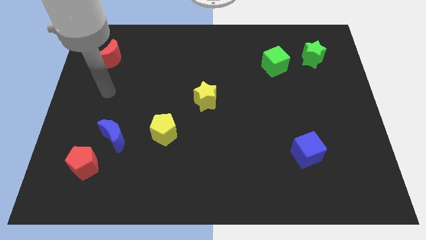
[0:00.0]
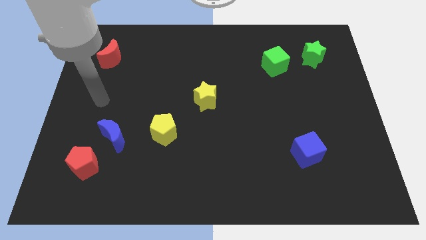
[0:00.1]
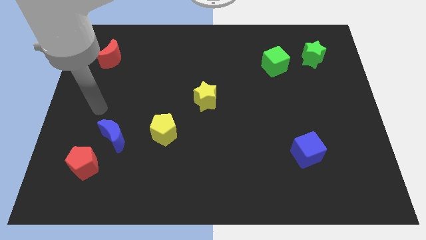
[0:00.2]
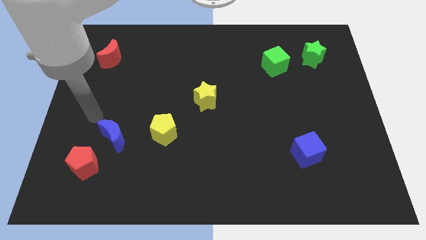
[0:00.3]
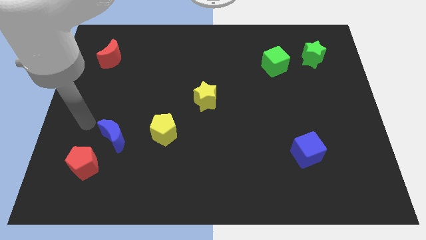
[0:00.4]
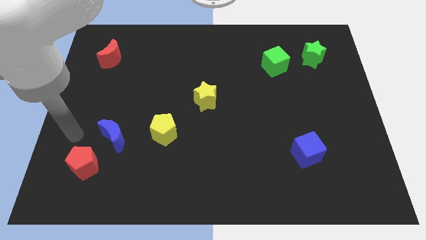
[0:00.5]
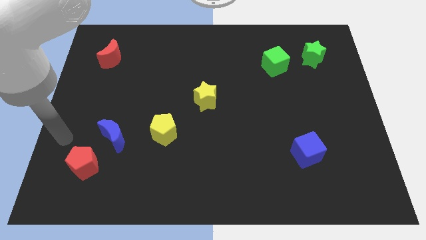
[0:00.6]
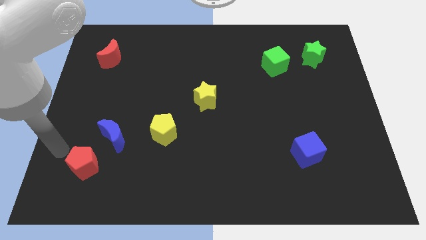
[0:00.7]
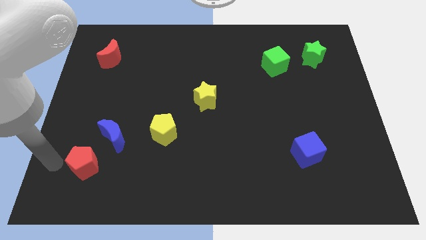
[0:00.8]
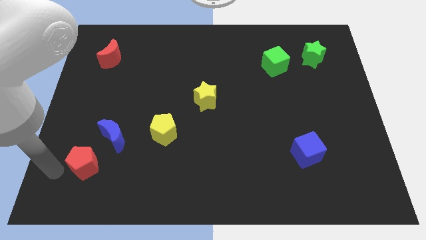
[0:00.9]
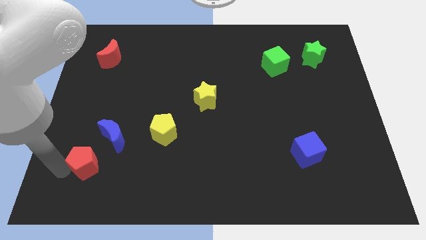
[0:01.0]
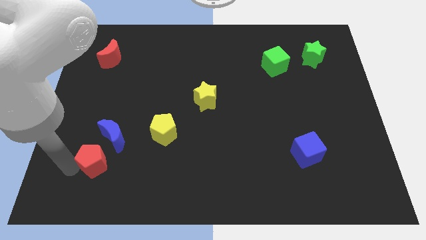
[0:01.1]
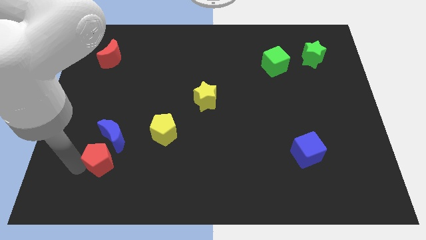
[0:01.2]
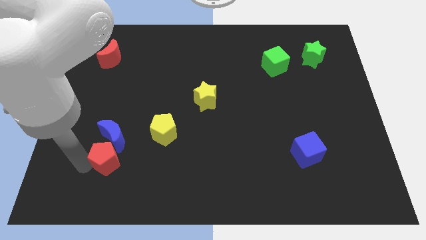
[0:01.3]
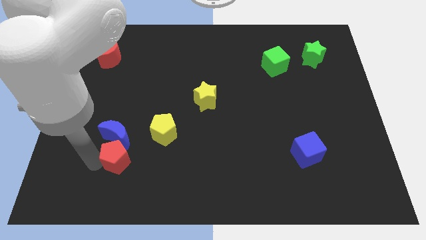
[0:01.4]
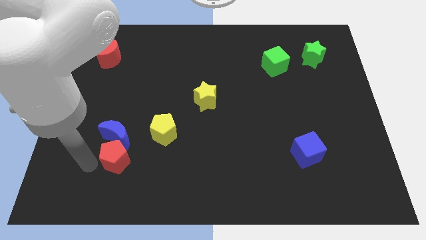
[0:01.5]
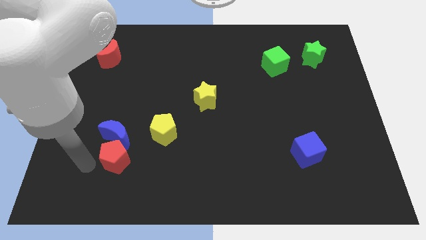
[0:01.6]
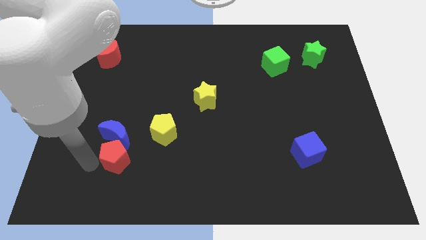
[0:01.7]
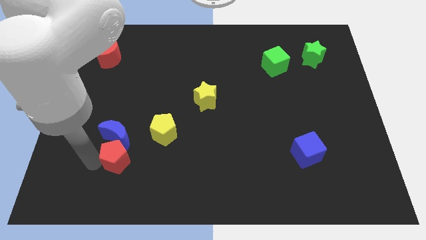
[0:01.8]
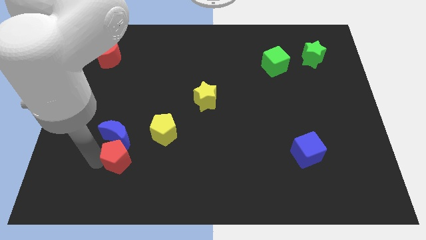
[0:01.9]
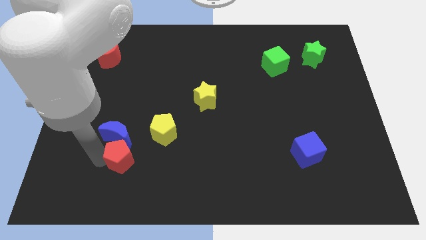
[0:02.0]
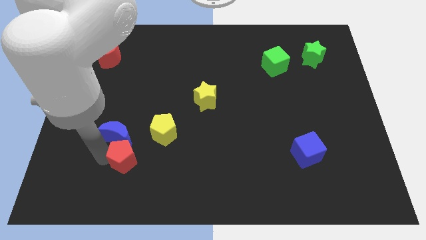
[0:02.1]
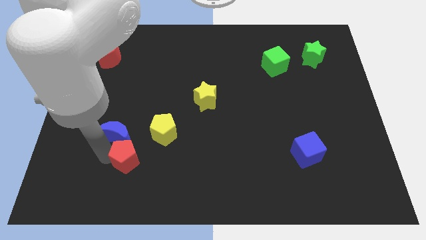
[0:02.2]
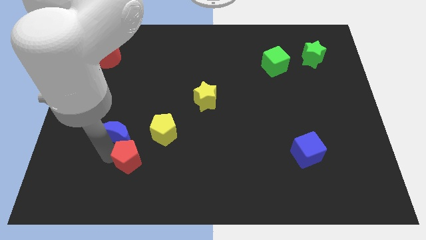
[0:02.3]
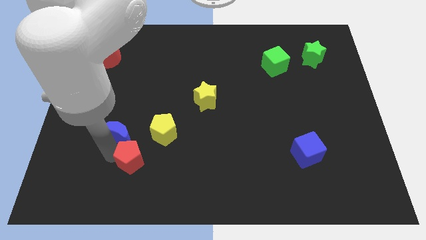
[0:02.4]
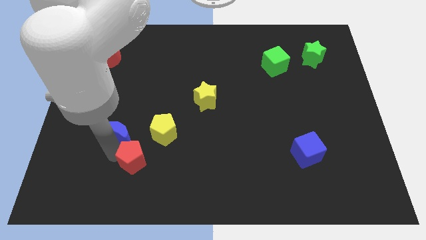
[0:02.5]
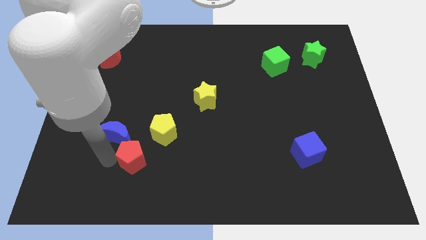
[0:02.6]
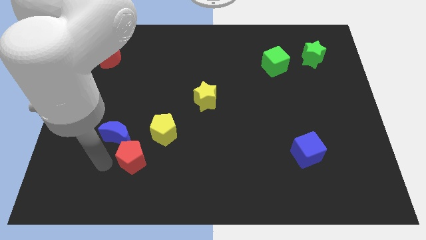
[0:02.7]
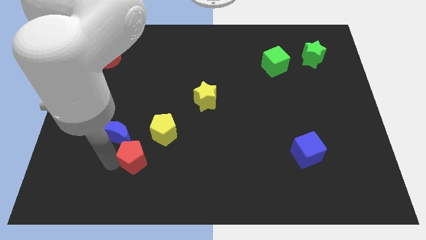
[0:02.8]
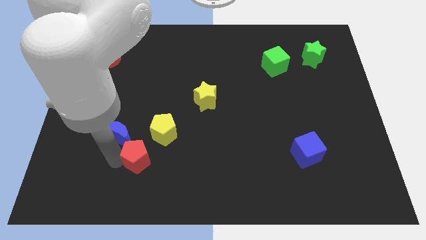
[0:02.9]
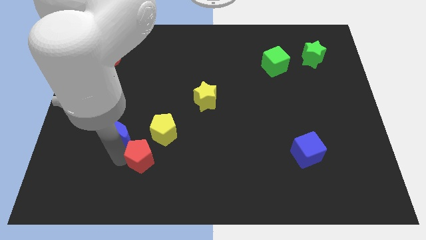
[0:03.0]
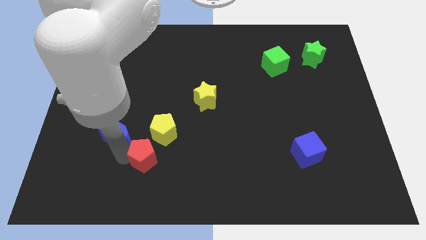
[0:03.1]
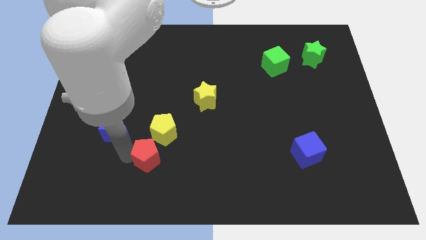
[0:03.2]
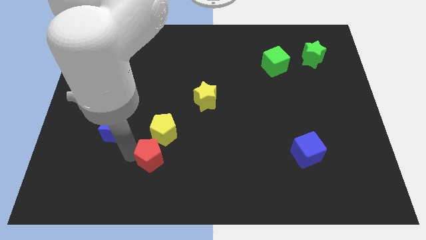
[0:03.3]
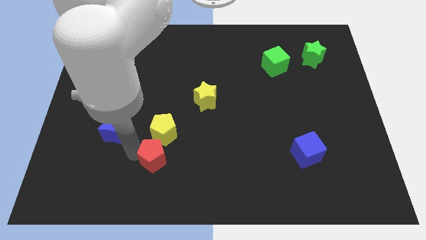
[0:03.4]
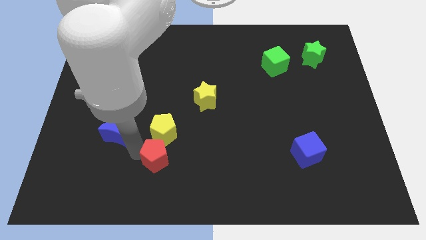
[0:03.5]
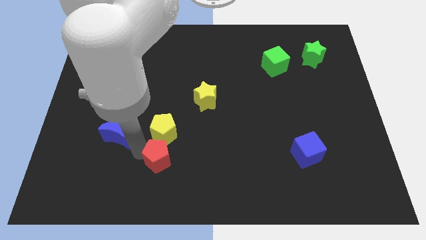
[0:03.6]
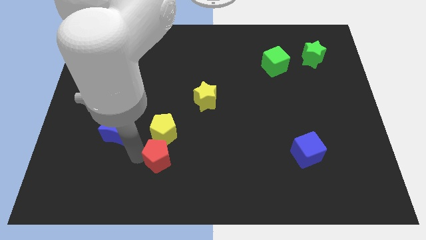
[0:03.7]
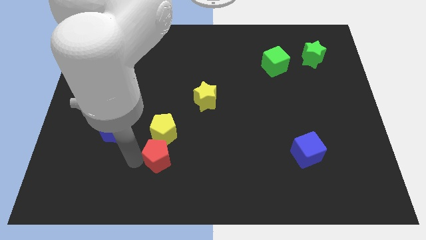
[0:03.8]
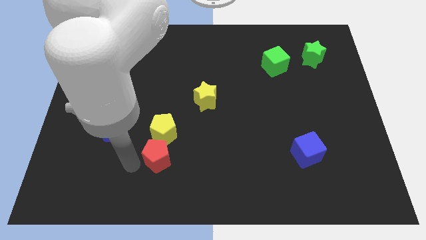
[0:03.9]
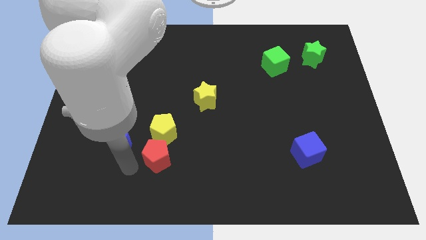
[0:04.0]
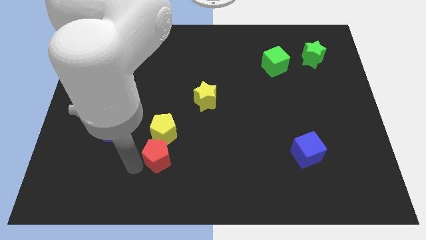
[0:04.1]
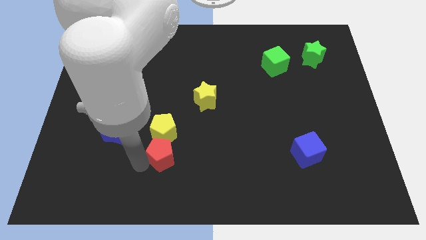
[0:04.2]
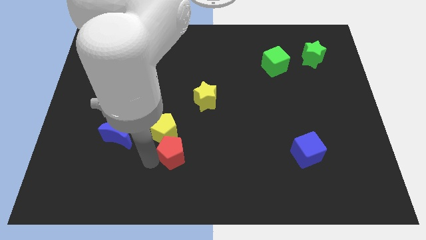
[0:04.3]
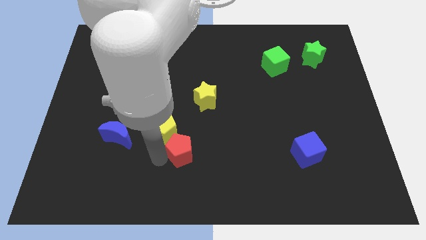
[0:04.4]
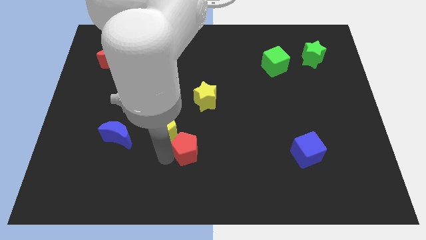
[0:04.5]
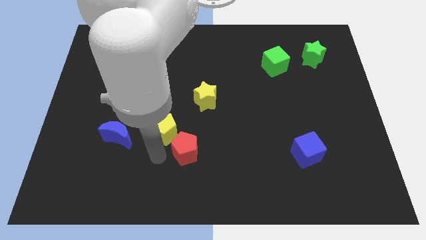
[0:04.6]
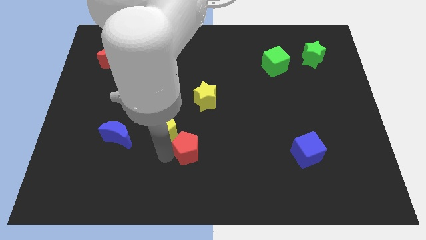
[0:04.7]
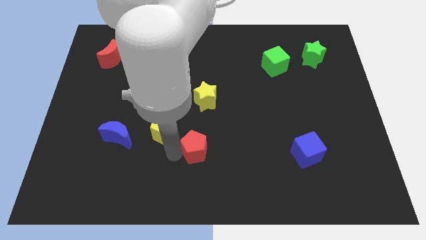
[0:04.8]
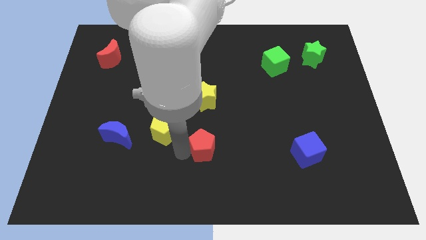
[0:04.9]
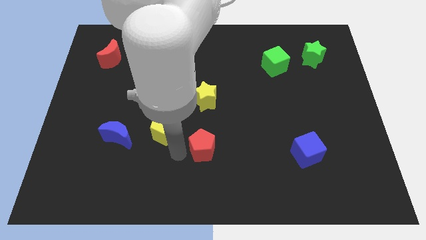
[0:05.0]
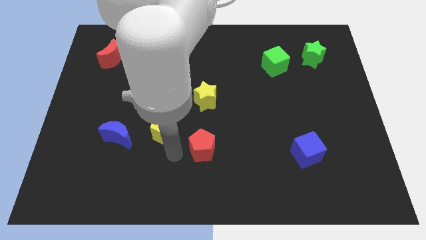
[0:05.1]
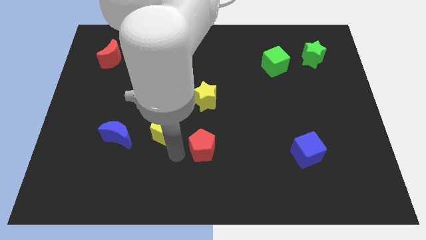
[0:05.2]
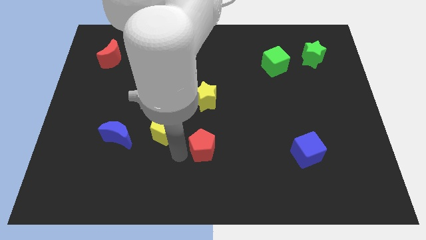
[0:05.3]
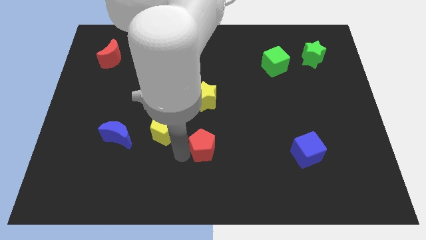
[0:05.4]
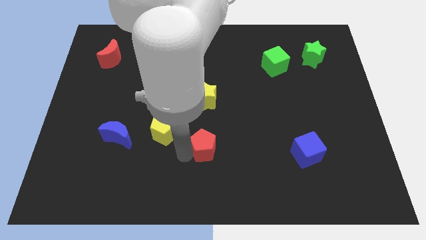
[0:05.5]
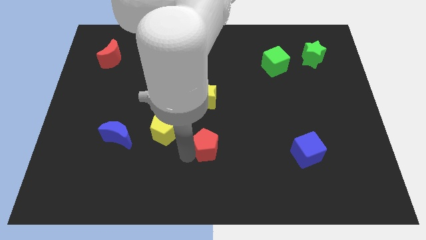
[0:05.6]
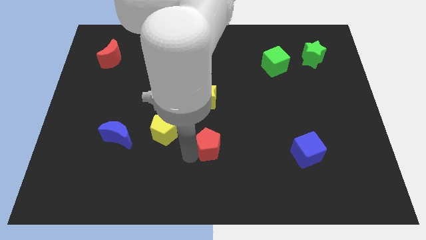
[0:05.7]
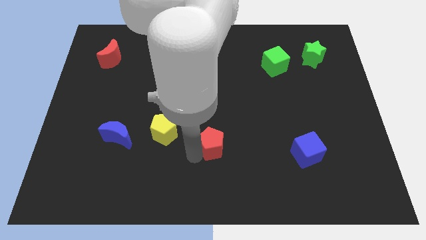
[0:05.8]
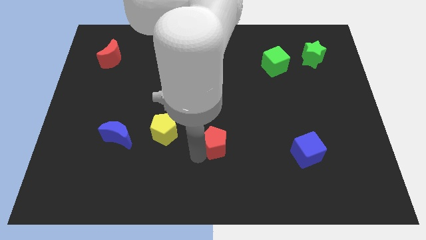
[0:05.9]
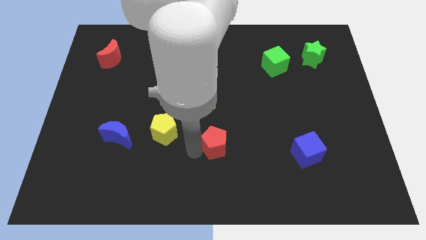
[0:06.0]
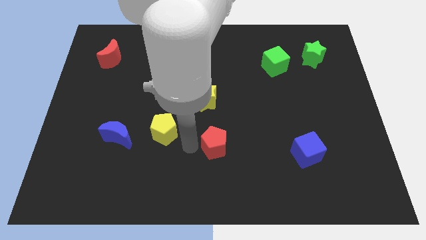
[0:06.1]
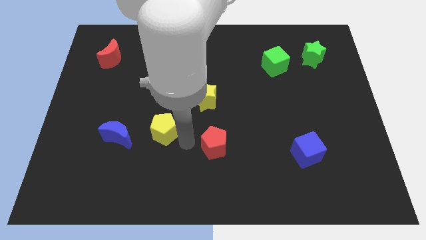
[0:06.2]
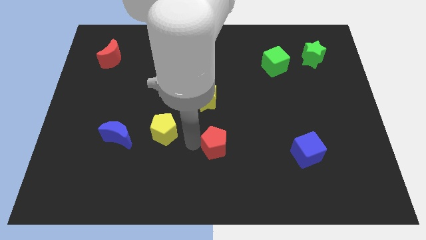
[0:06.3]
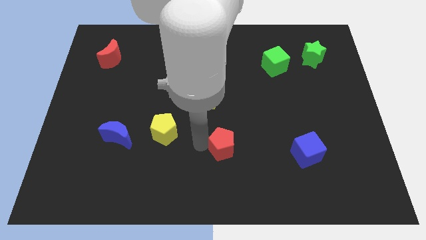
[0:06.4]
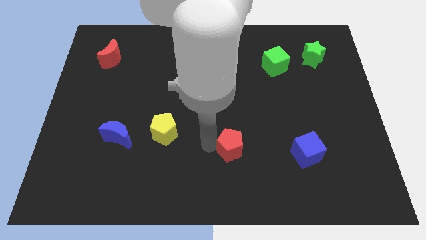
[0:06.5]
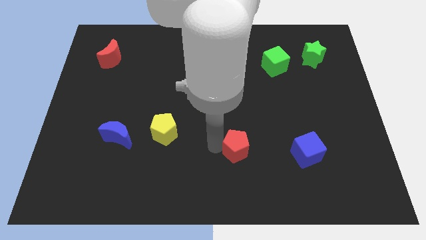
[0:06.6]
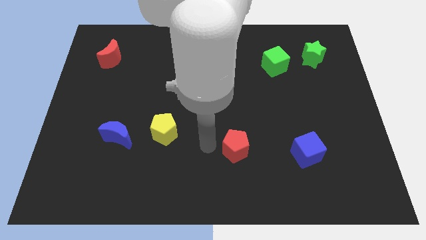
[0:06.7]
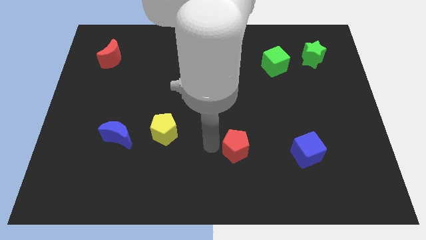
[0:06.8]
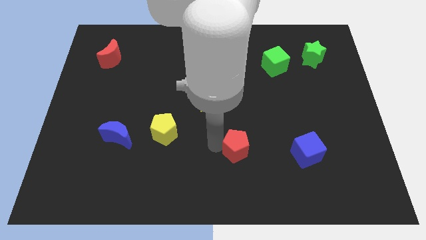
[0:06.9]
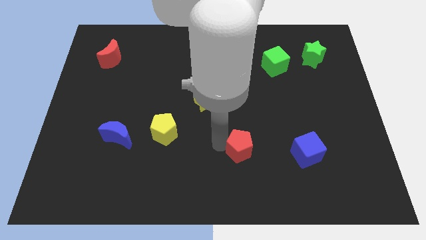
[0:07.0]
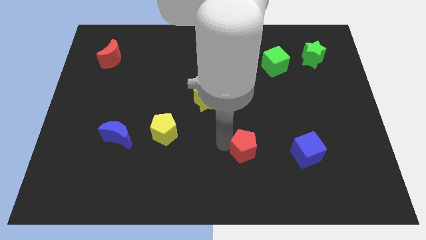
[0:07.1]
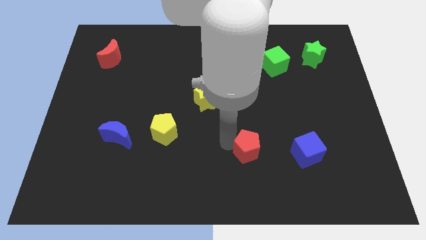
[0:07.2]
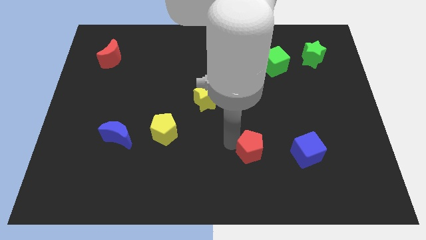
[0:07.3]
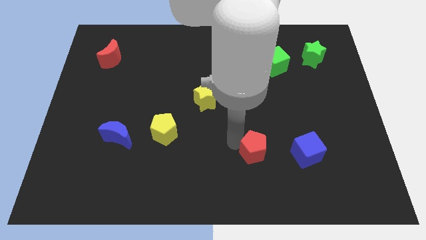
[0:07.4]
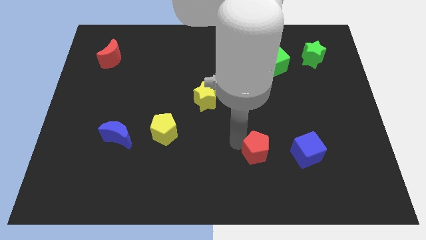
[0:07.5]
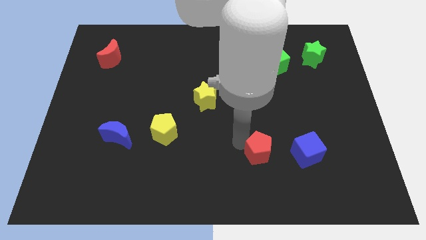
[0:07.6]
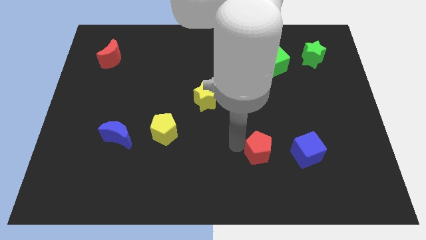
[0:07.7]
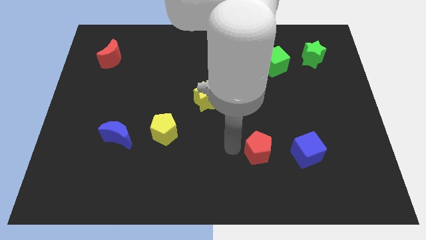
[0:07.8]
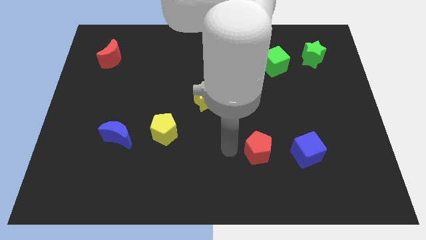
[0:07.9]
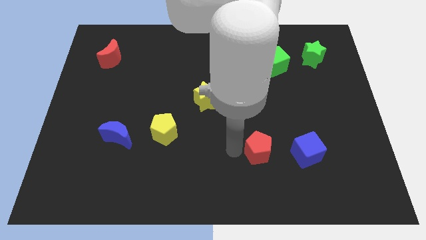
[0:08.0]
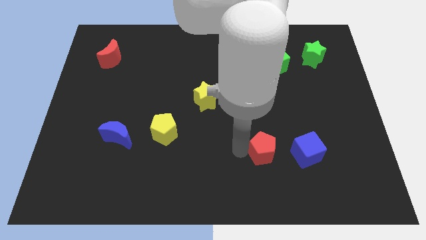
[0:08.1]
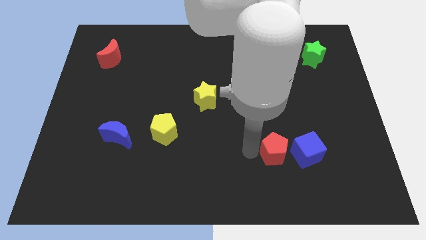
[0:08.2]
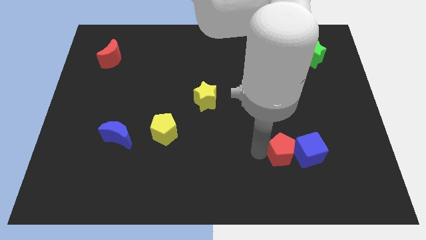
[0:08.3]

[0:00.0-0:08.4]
move the red pentagon next to the blue cube
